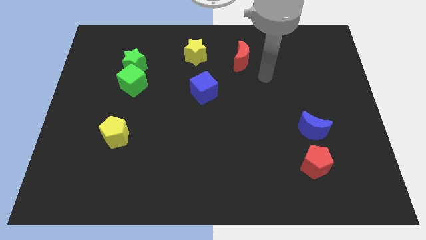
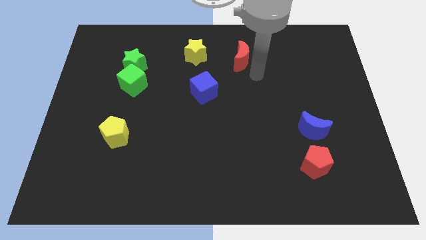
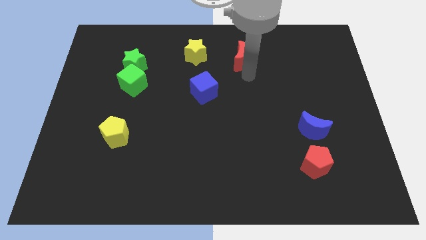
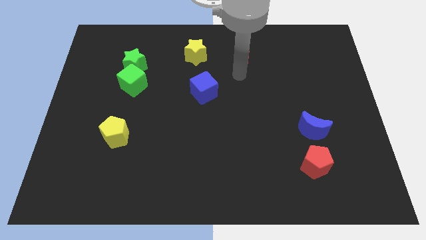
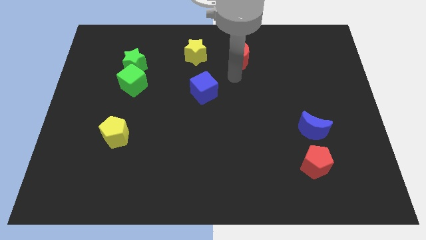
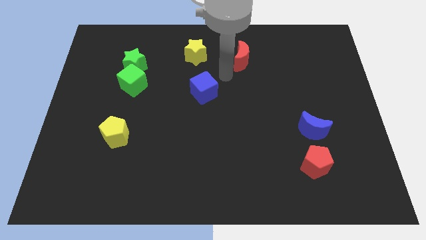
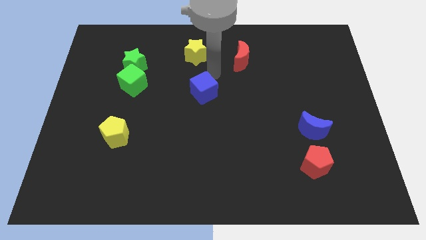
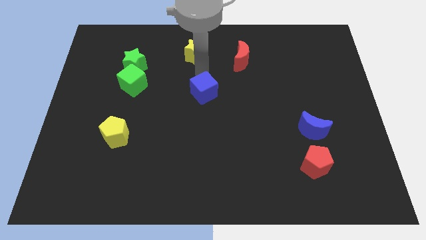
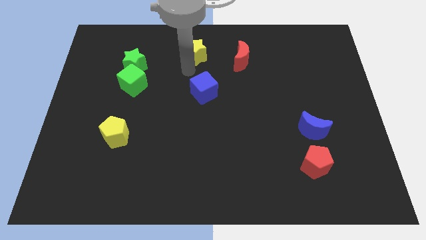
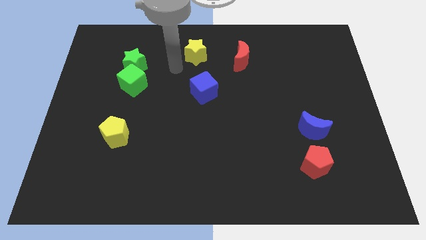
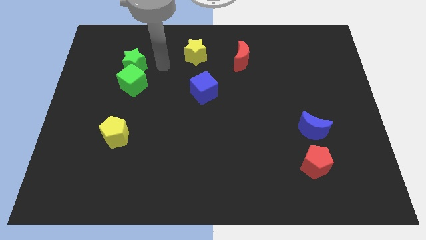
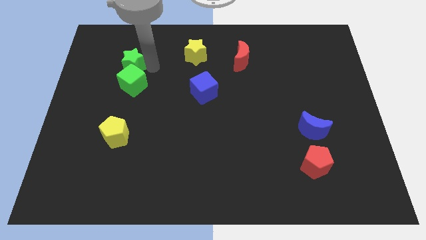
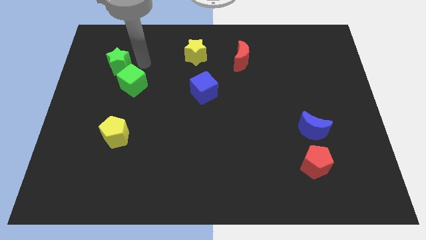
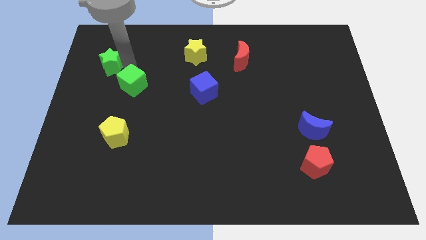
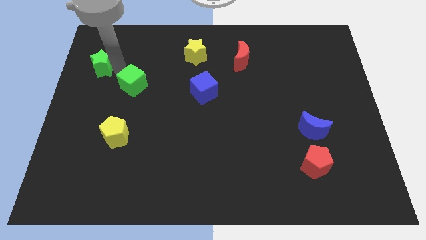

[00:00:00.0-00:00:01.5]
separate the green cube from the green star

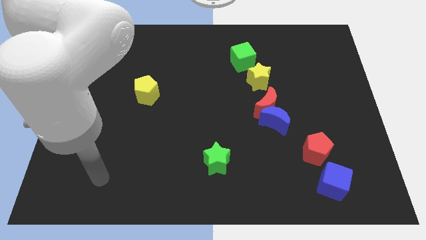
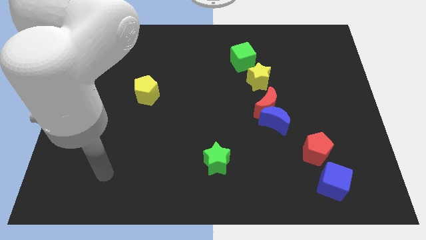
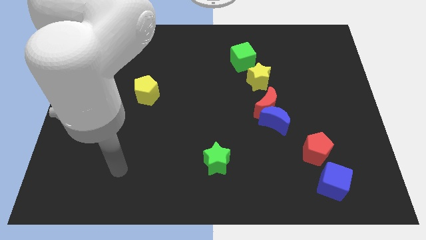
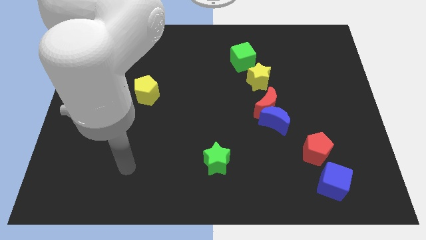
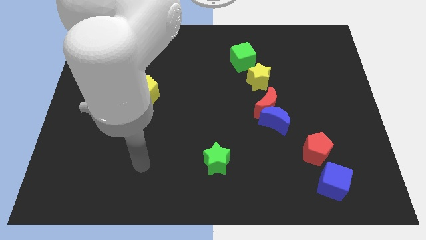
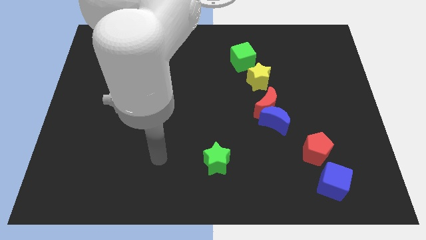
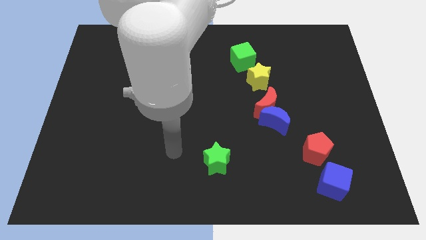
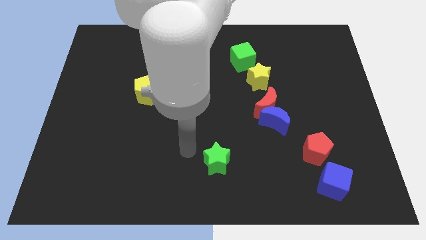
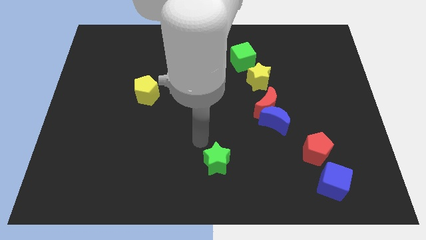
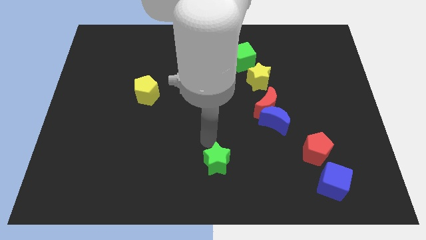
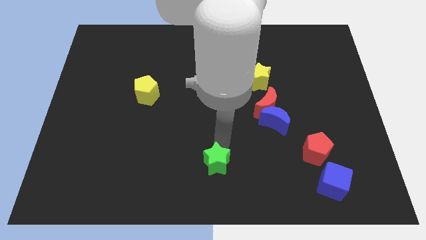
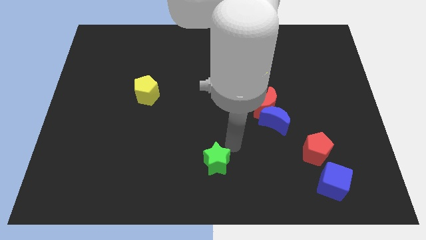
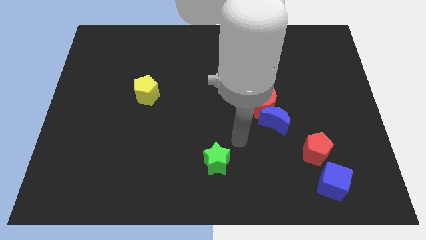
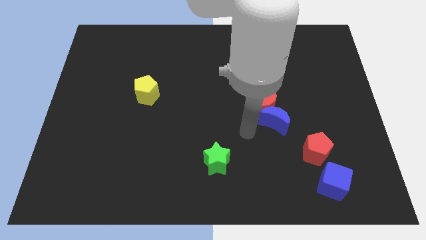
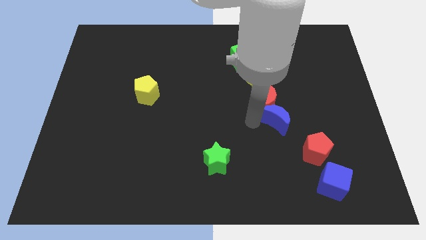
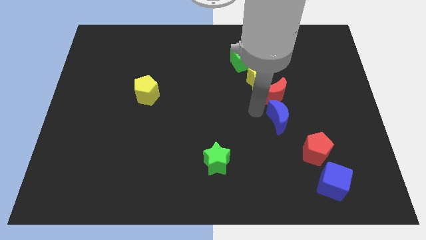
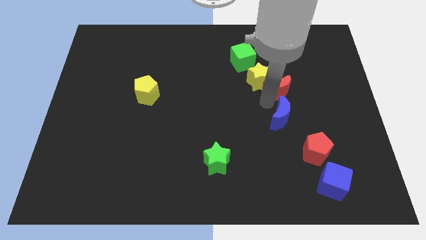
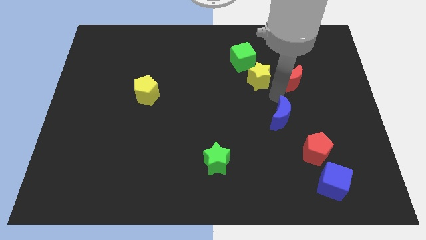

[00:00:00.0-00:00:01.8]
separate the blue moon from the red moon

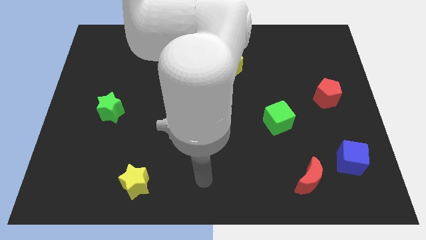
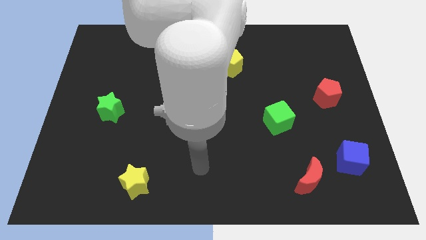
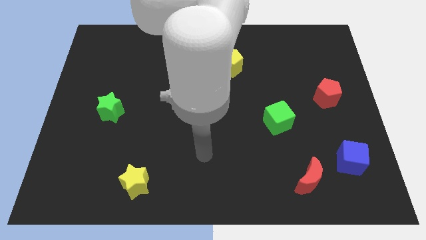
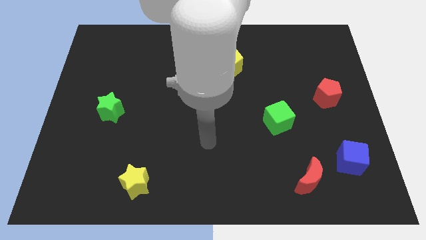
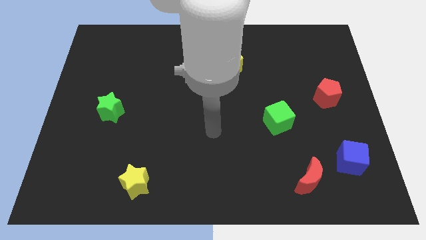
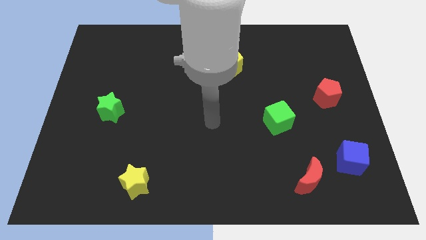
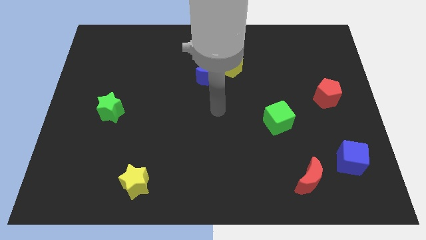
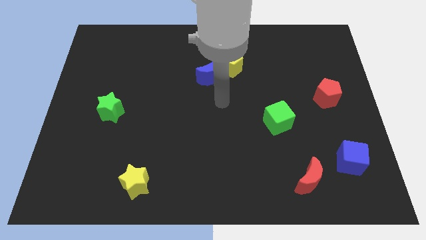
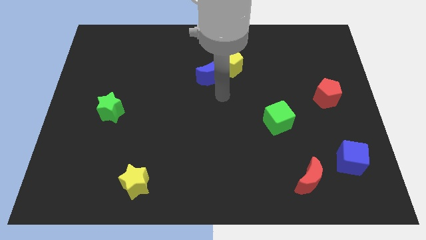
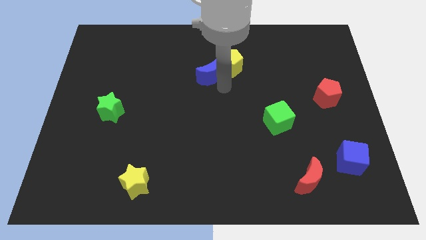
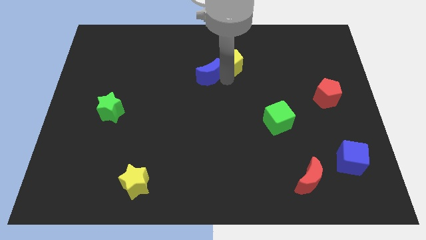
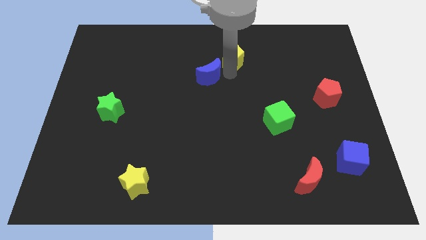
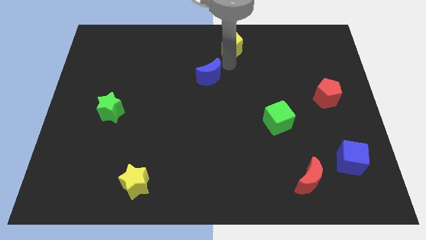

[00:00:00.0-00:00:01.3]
separate the blue moon from the yellow pentagon

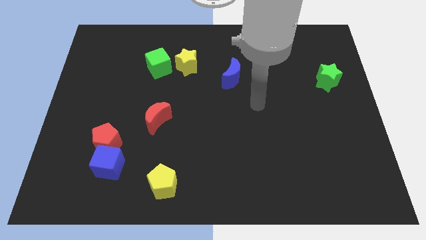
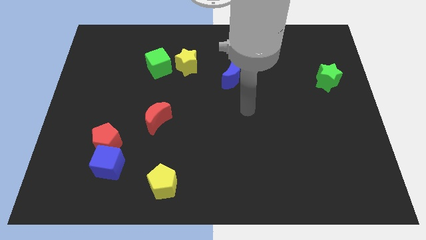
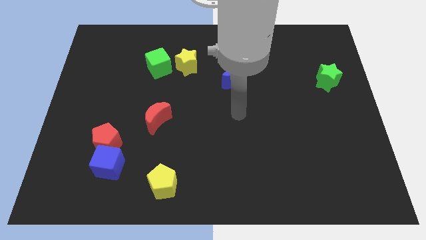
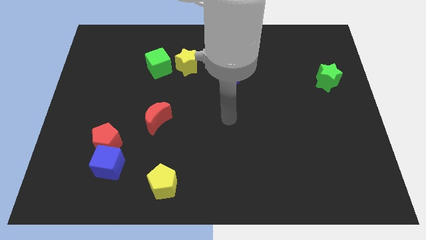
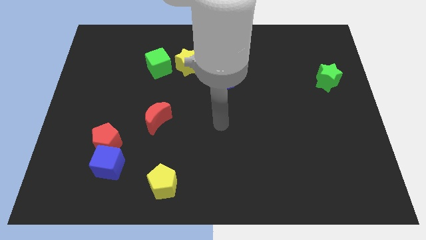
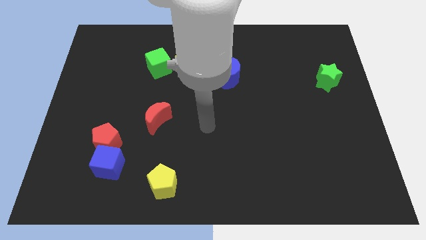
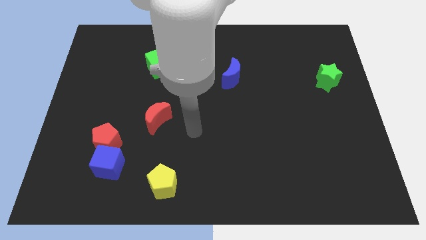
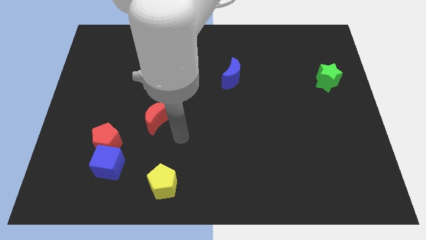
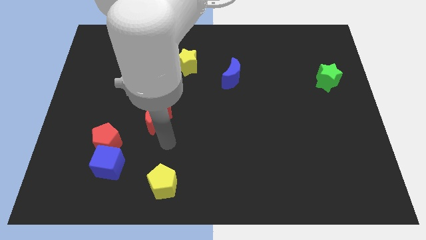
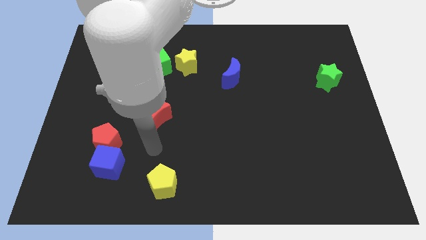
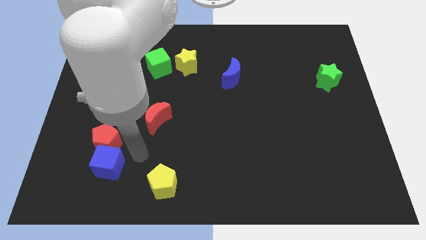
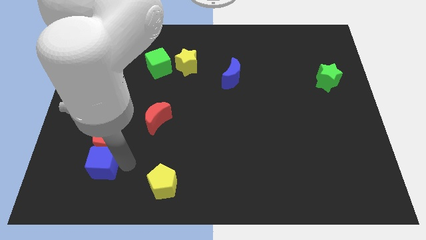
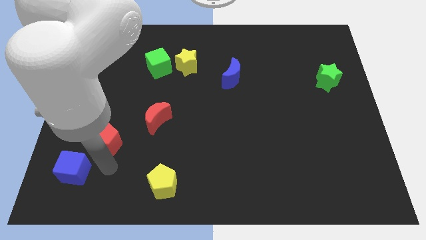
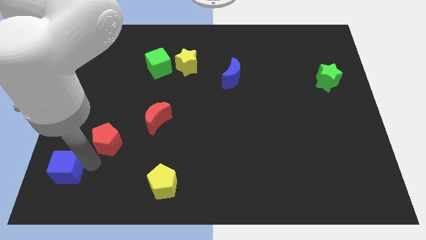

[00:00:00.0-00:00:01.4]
pull the red pentagon apart from the blue cube

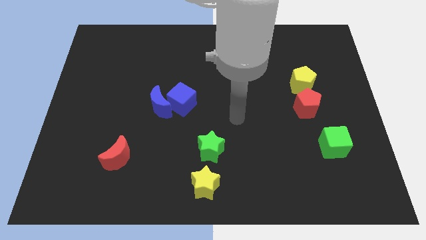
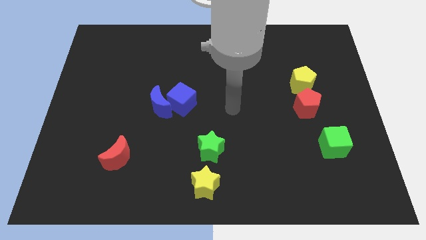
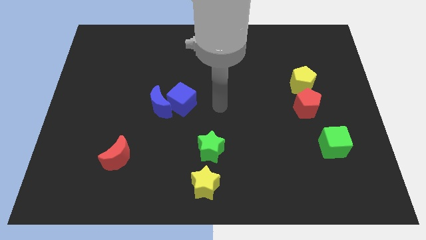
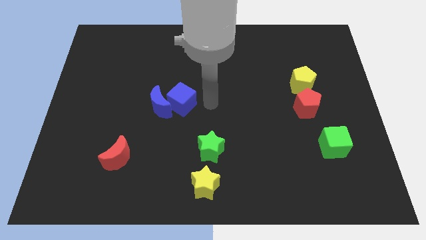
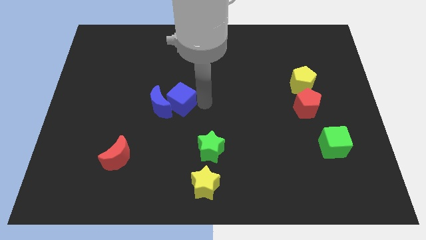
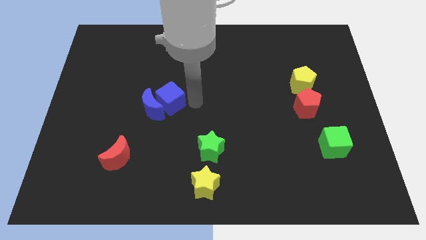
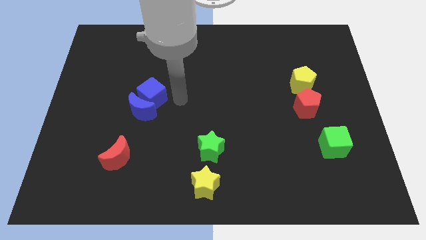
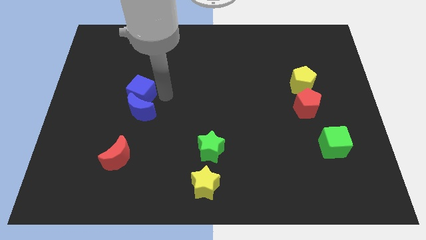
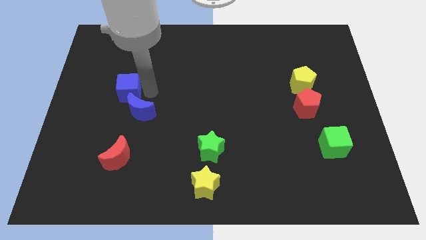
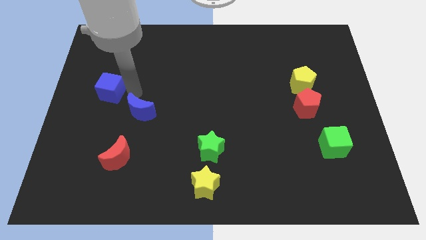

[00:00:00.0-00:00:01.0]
pull the blue moon apart from the blue cube

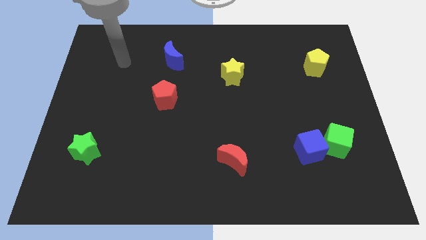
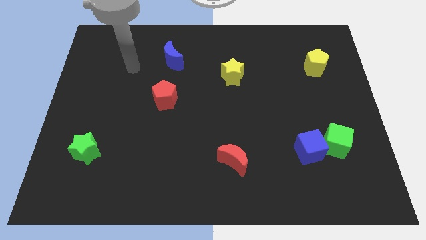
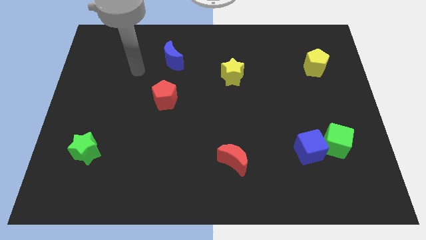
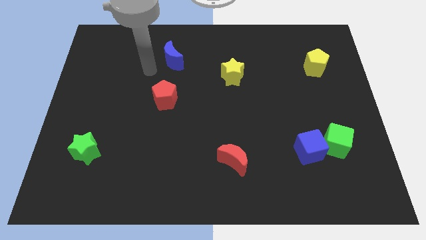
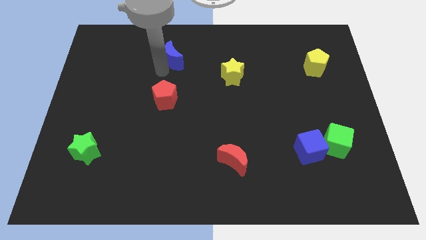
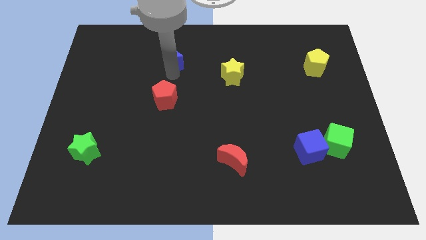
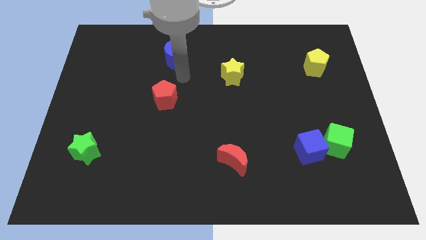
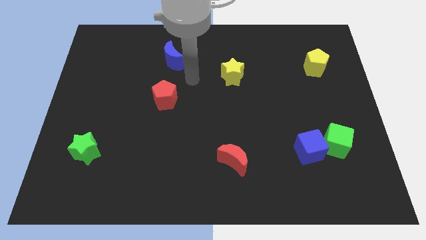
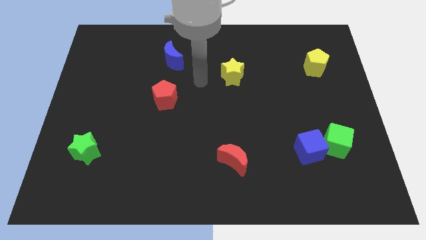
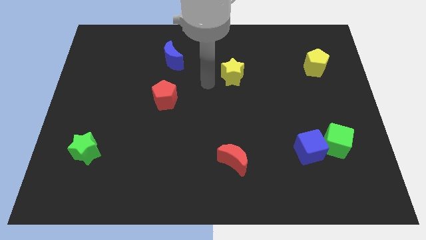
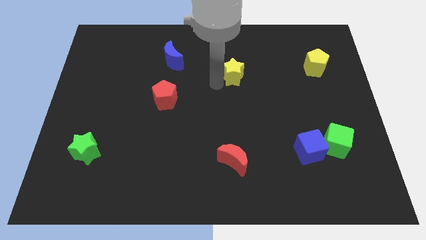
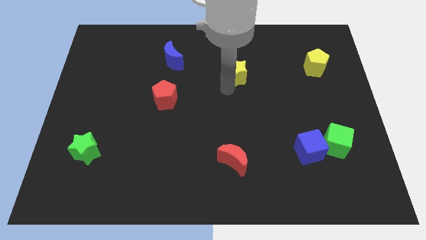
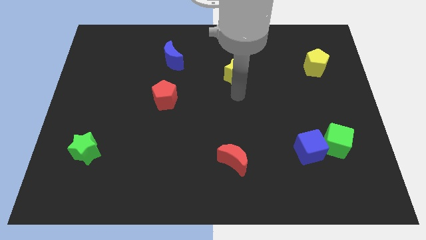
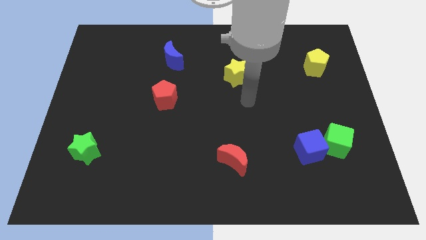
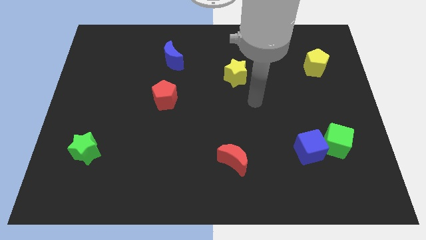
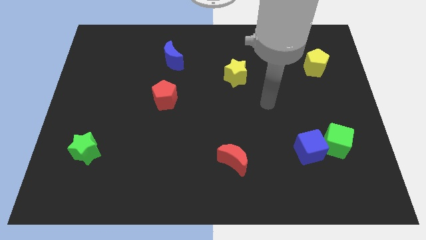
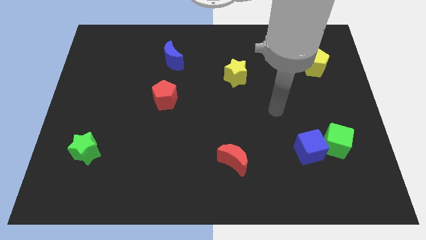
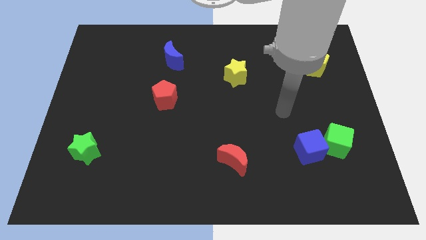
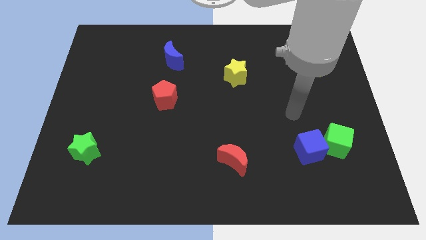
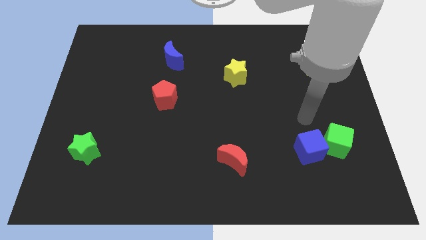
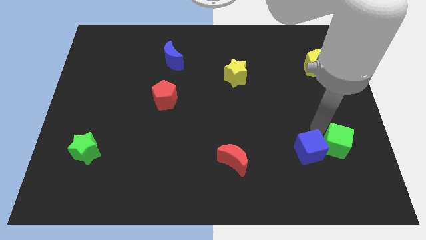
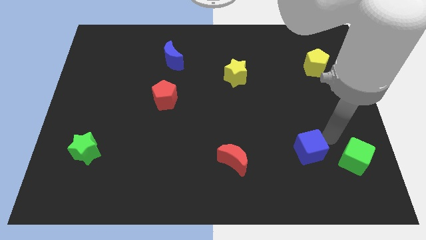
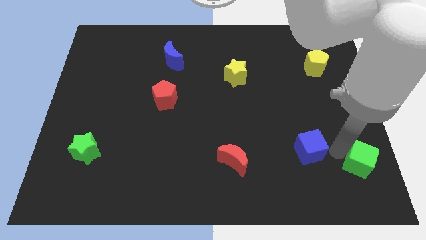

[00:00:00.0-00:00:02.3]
pull the blue cube apart from the green cube
